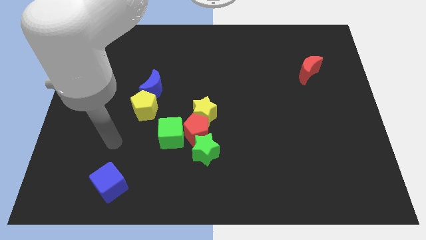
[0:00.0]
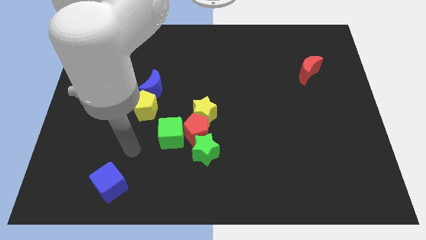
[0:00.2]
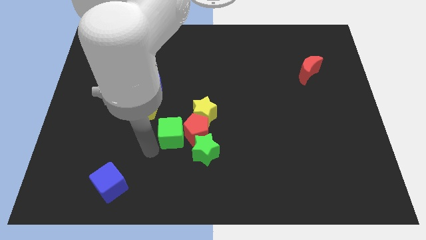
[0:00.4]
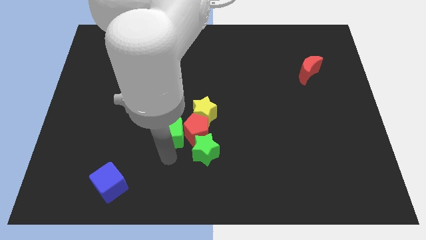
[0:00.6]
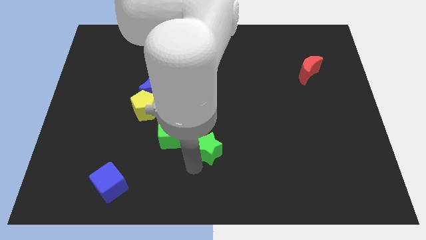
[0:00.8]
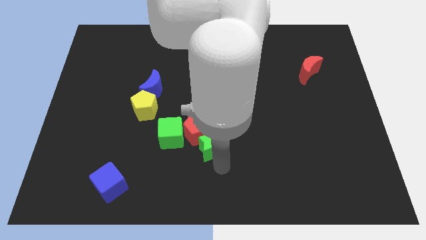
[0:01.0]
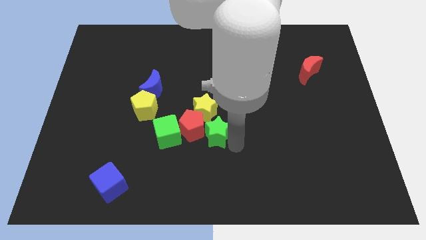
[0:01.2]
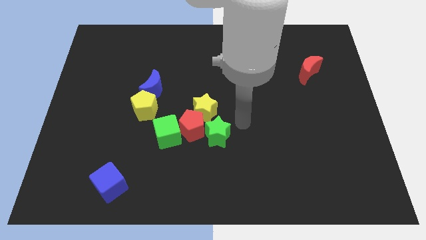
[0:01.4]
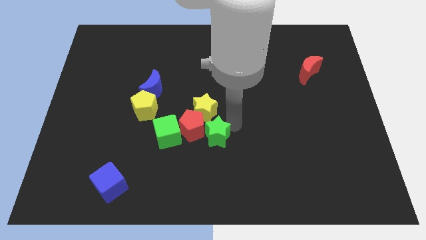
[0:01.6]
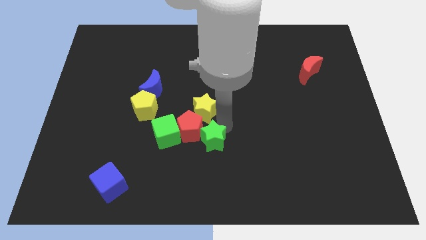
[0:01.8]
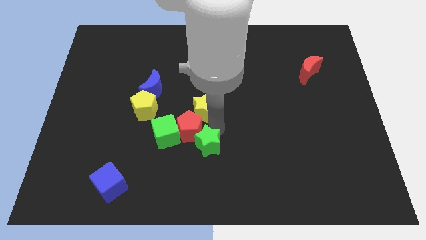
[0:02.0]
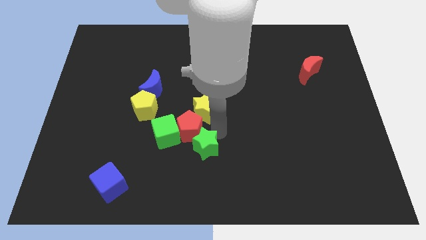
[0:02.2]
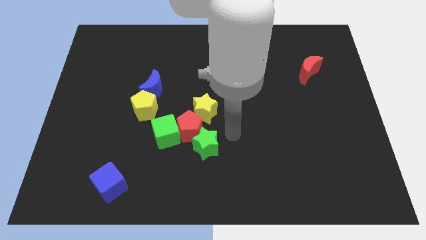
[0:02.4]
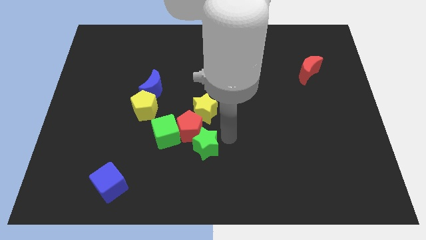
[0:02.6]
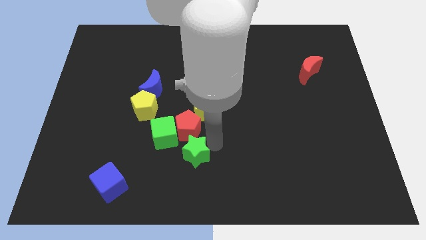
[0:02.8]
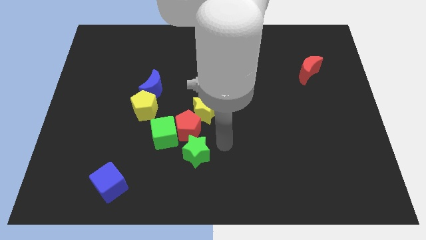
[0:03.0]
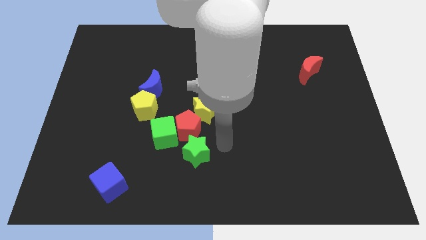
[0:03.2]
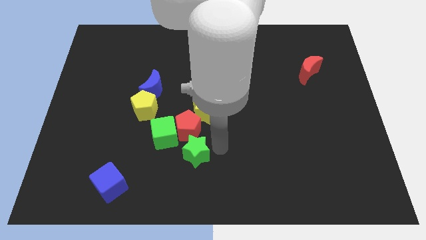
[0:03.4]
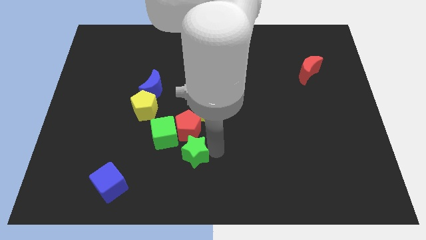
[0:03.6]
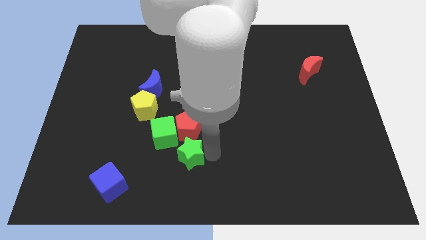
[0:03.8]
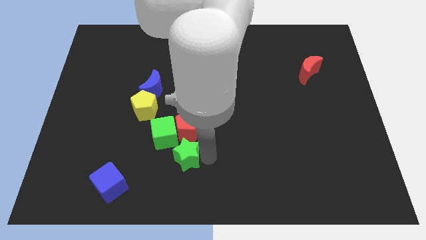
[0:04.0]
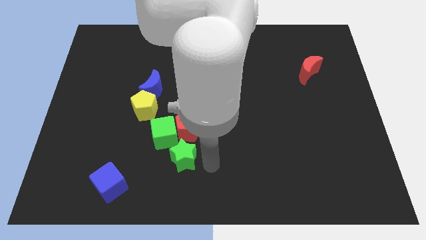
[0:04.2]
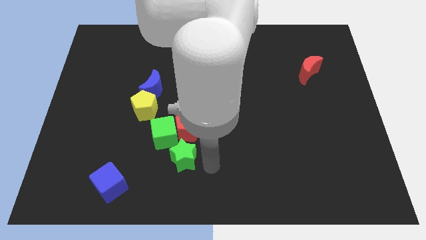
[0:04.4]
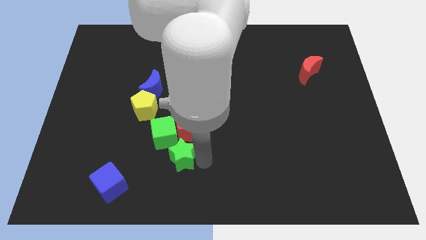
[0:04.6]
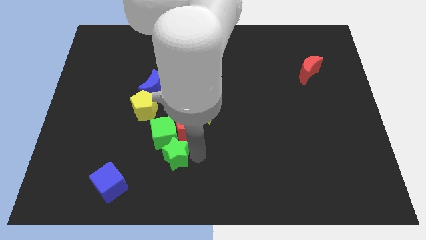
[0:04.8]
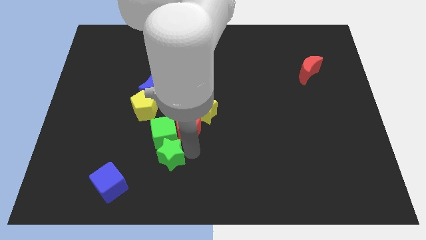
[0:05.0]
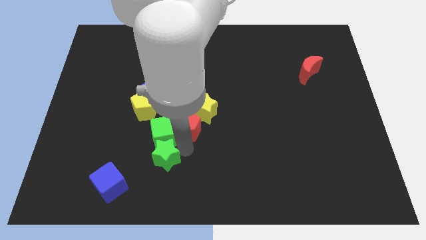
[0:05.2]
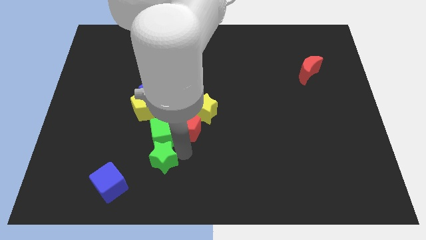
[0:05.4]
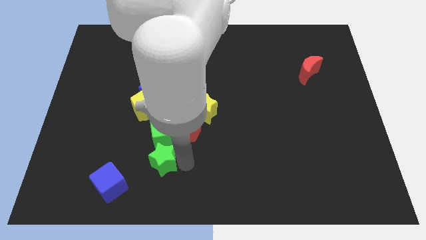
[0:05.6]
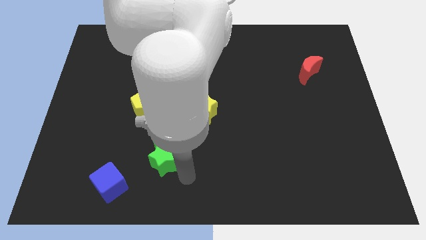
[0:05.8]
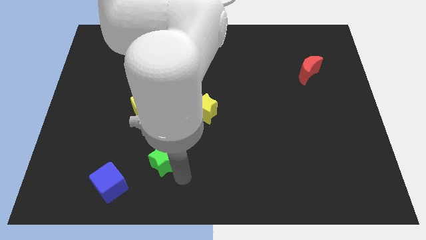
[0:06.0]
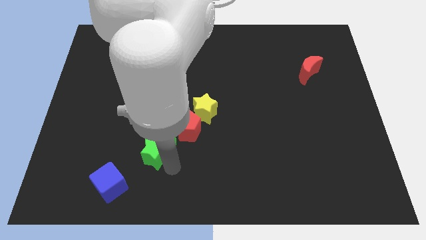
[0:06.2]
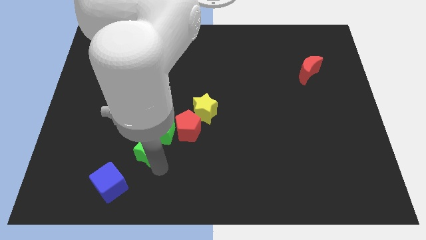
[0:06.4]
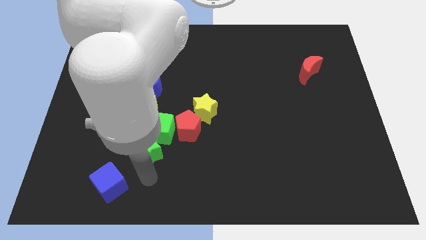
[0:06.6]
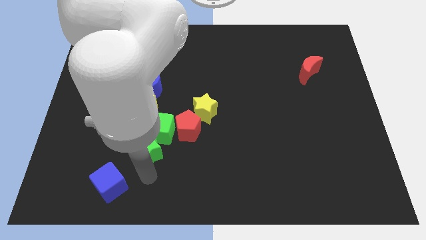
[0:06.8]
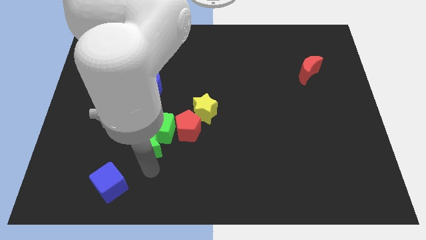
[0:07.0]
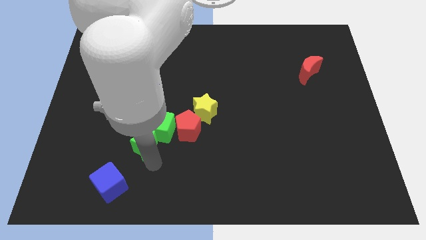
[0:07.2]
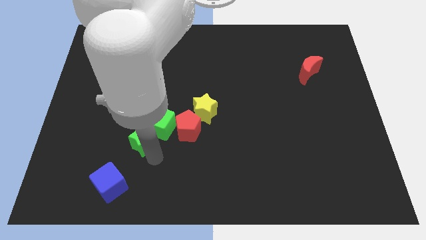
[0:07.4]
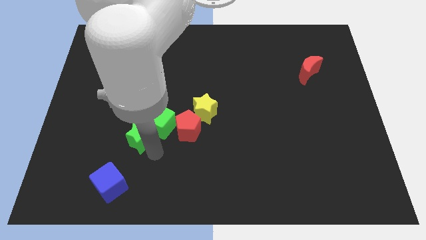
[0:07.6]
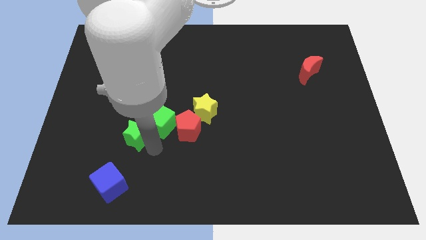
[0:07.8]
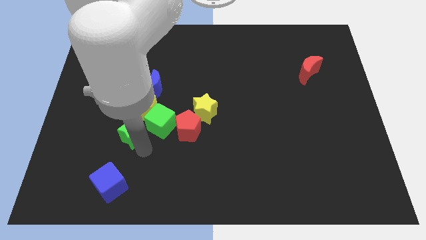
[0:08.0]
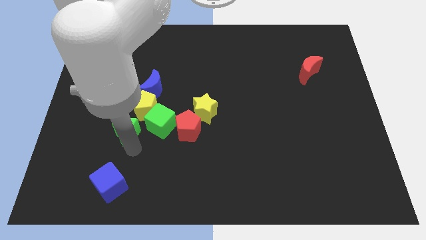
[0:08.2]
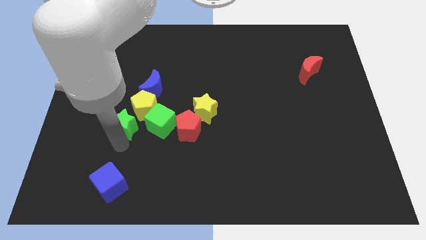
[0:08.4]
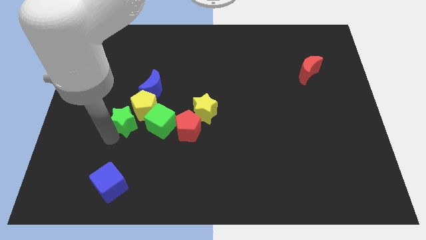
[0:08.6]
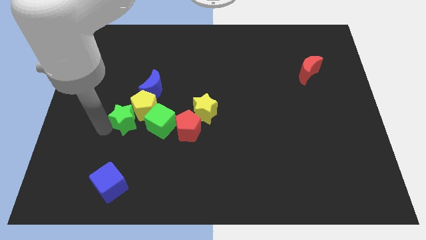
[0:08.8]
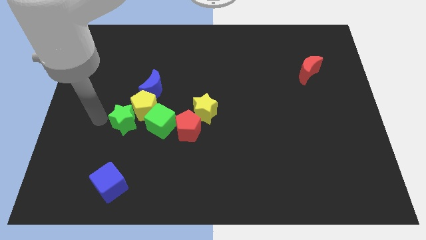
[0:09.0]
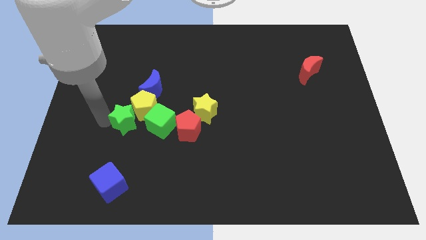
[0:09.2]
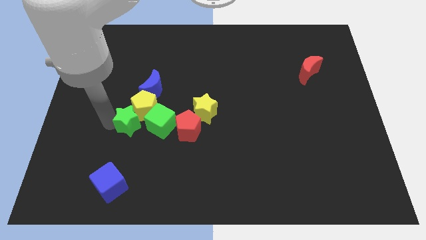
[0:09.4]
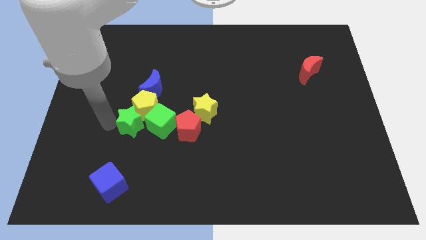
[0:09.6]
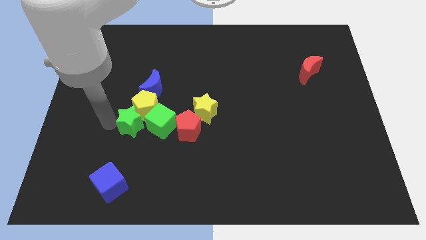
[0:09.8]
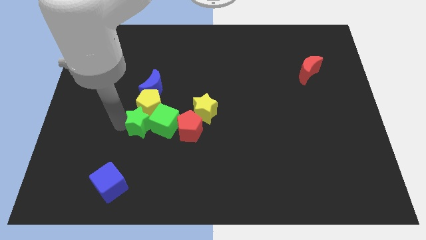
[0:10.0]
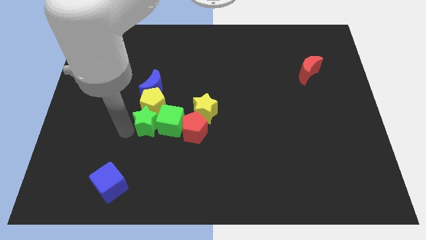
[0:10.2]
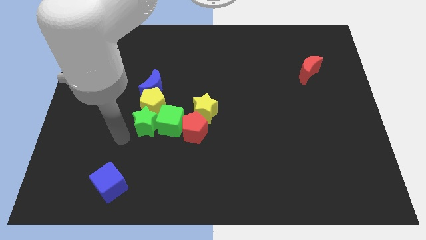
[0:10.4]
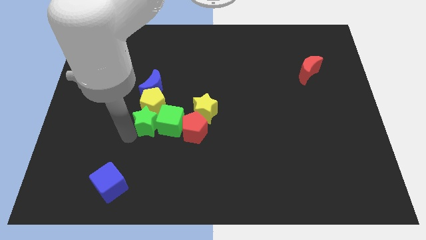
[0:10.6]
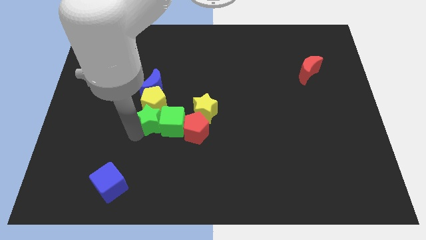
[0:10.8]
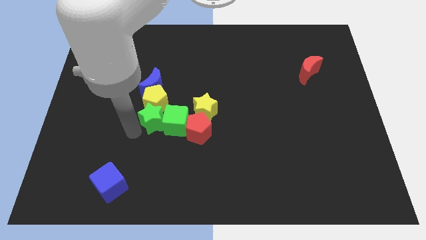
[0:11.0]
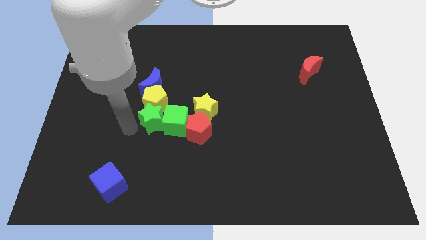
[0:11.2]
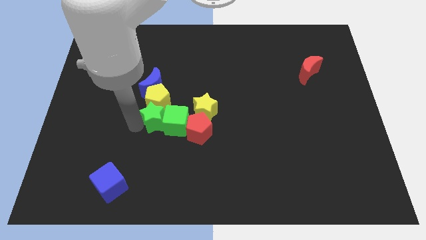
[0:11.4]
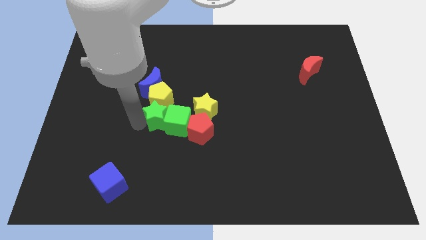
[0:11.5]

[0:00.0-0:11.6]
slide the green star diagonally up and to the left of the red pentagon

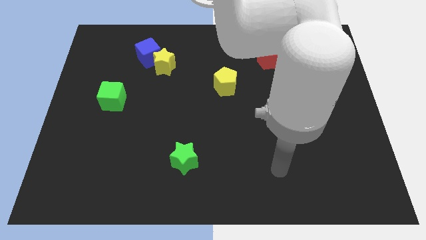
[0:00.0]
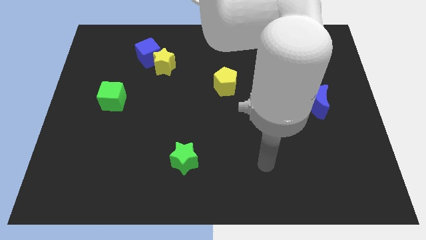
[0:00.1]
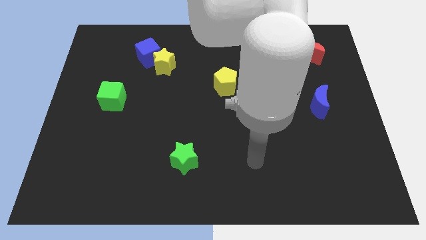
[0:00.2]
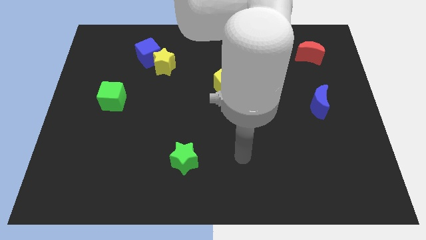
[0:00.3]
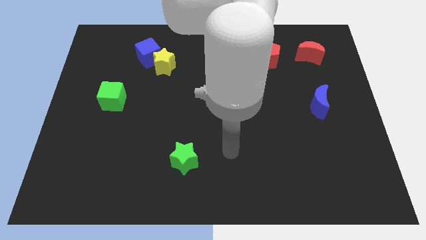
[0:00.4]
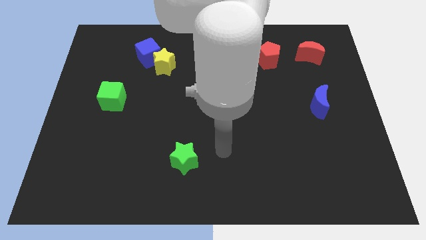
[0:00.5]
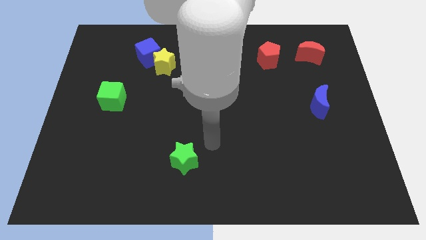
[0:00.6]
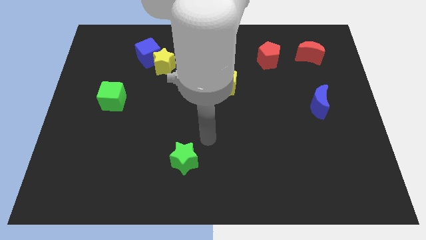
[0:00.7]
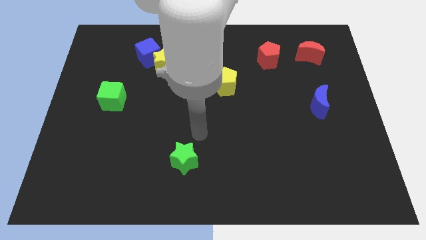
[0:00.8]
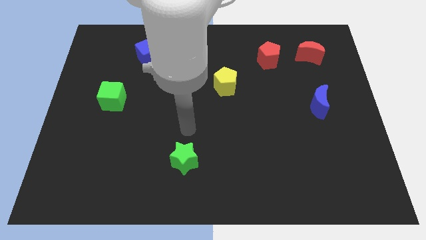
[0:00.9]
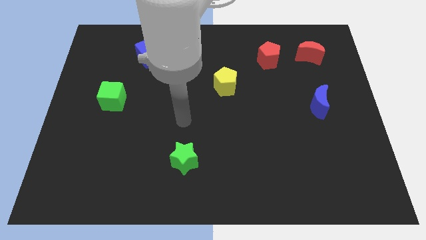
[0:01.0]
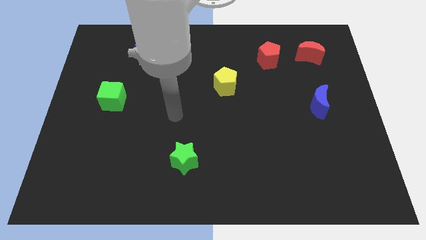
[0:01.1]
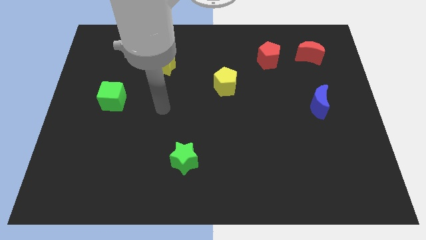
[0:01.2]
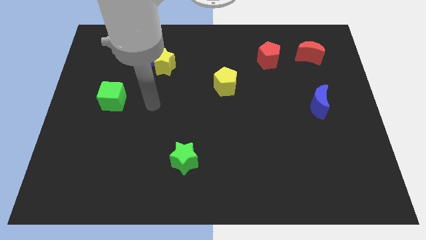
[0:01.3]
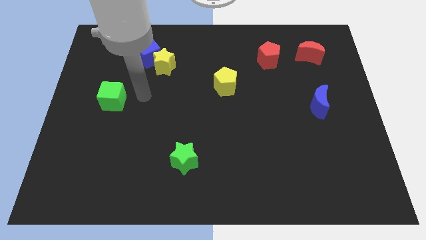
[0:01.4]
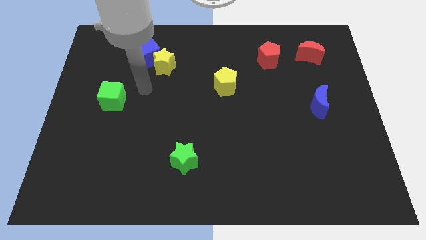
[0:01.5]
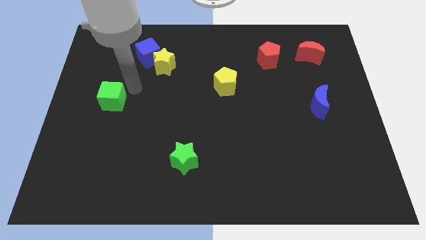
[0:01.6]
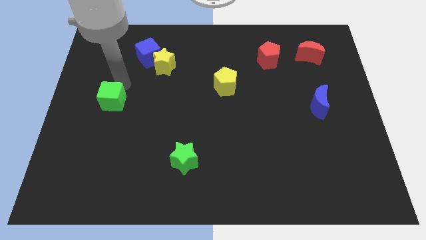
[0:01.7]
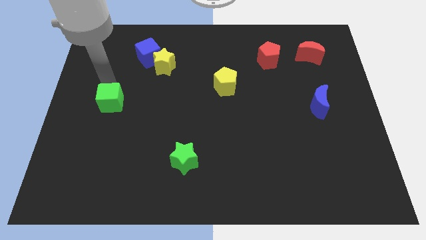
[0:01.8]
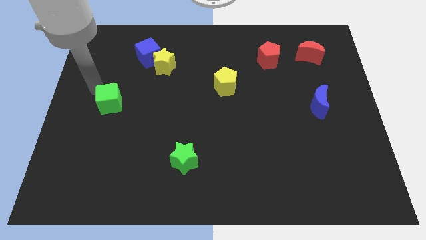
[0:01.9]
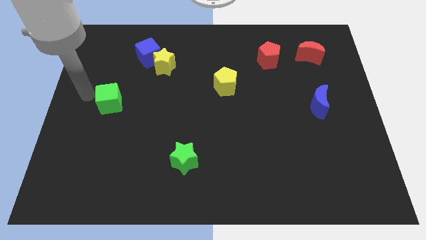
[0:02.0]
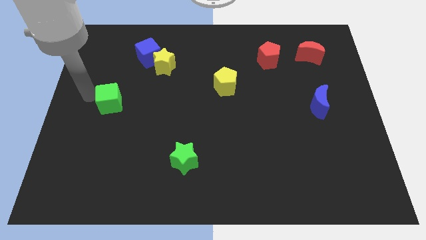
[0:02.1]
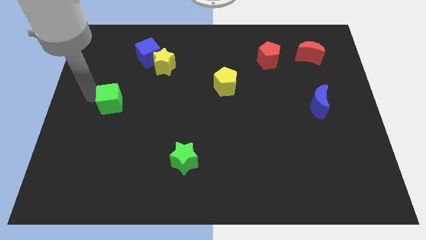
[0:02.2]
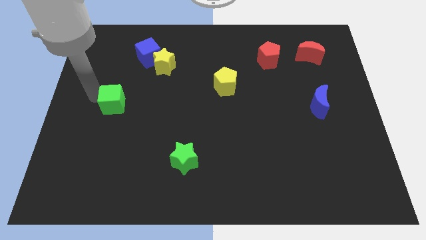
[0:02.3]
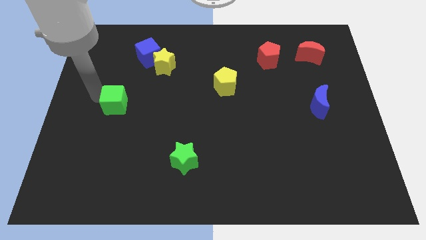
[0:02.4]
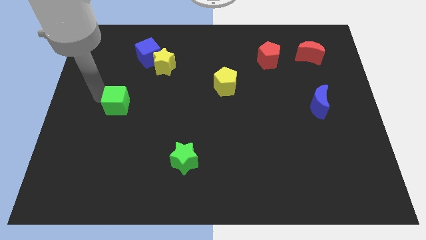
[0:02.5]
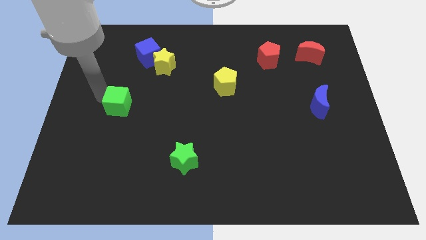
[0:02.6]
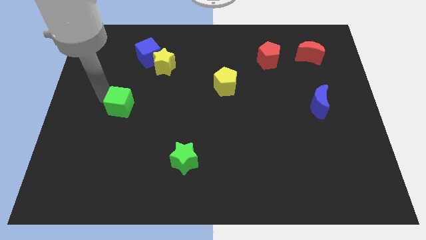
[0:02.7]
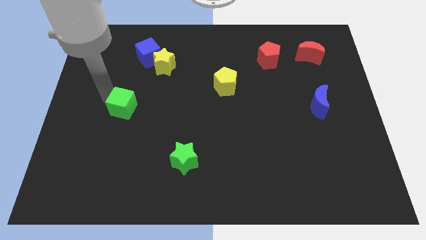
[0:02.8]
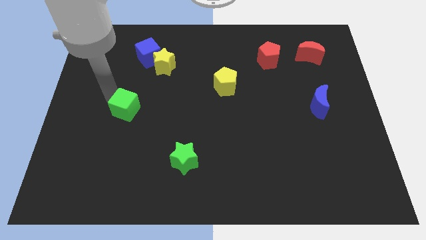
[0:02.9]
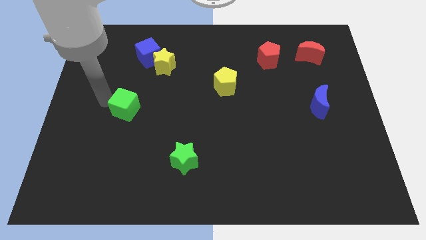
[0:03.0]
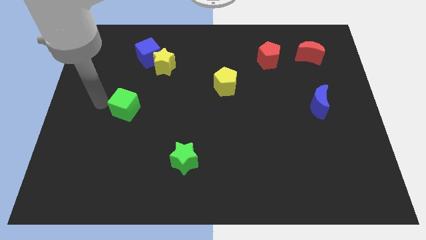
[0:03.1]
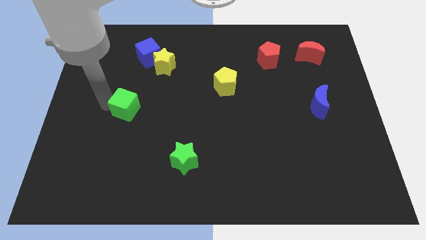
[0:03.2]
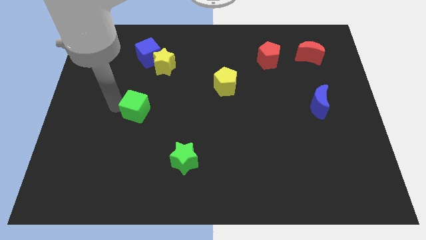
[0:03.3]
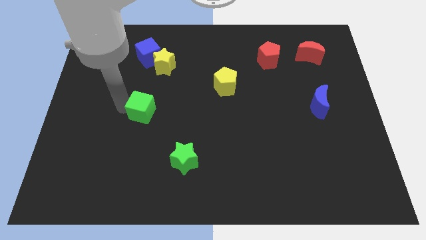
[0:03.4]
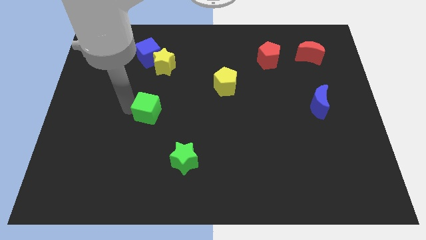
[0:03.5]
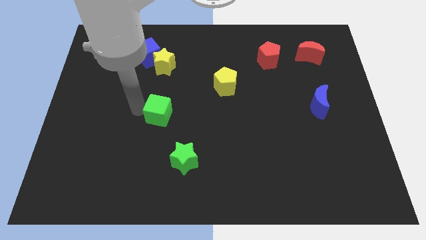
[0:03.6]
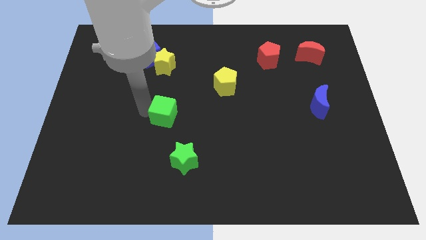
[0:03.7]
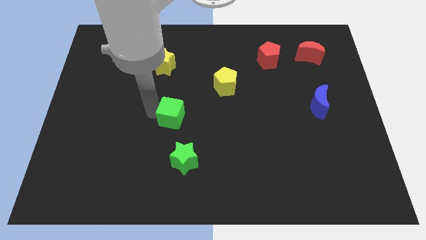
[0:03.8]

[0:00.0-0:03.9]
put the green cube above the green star
